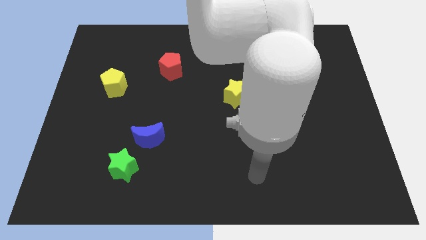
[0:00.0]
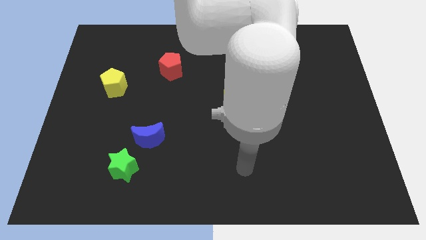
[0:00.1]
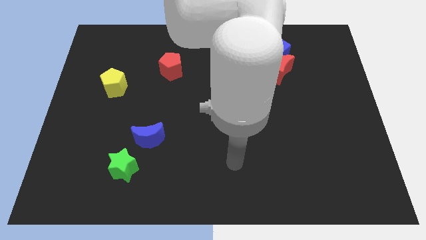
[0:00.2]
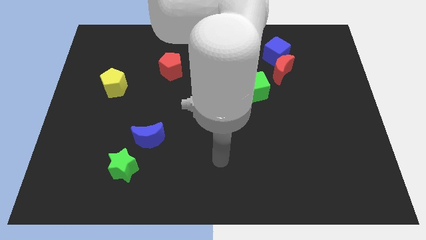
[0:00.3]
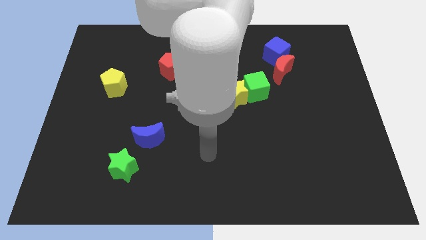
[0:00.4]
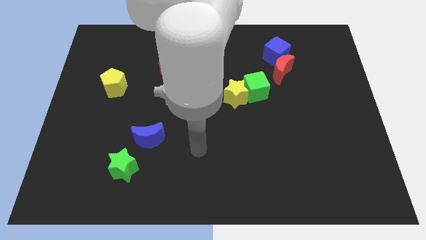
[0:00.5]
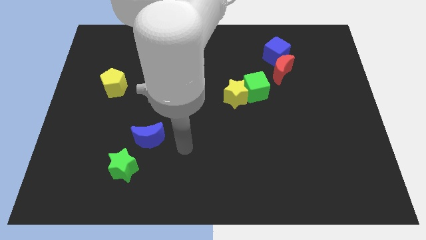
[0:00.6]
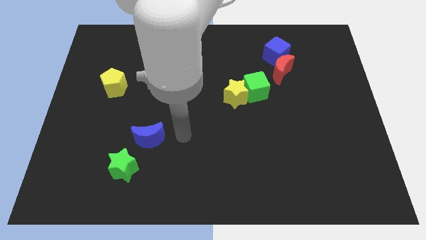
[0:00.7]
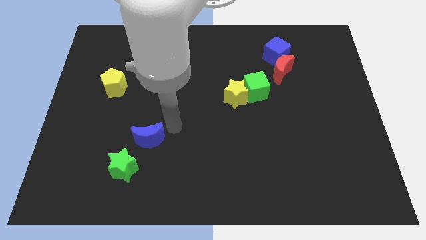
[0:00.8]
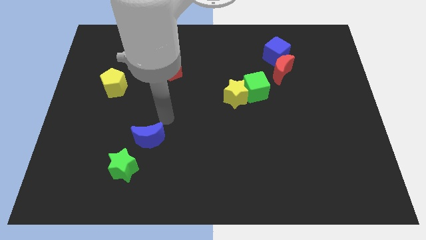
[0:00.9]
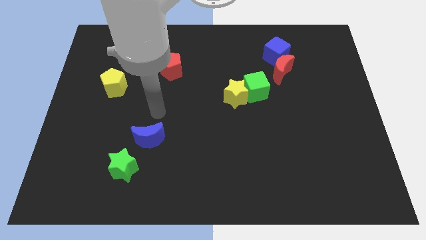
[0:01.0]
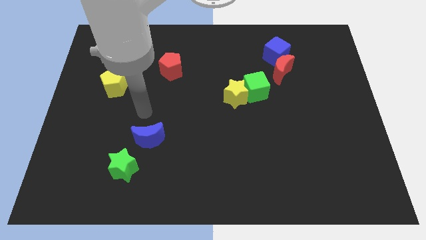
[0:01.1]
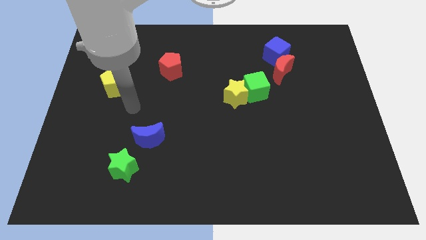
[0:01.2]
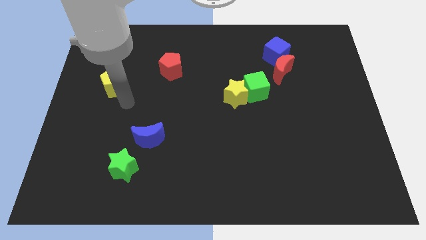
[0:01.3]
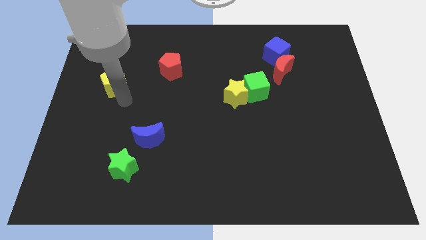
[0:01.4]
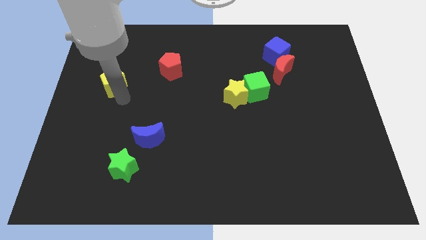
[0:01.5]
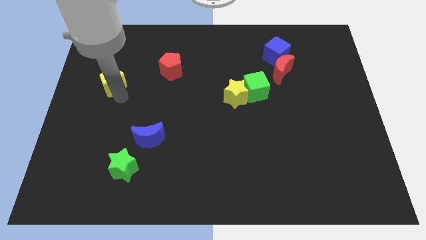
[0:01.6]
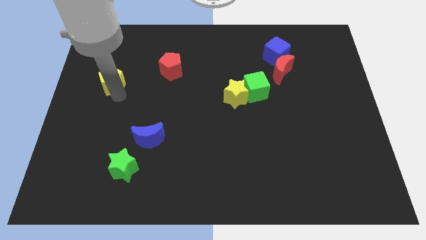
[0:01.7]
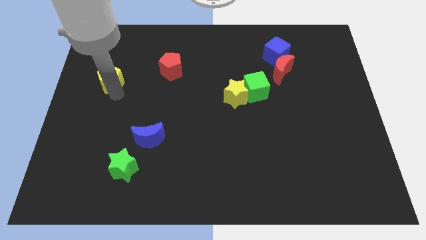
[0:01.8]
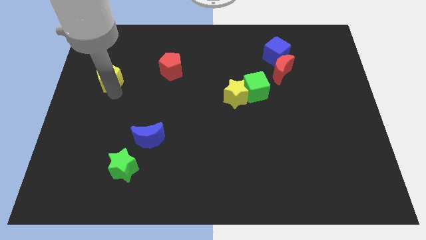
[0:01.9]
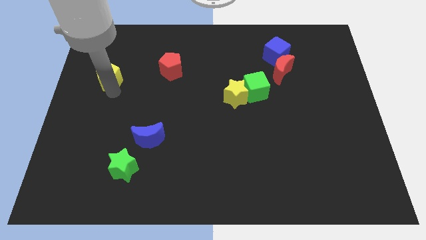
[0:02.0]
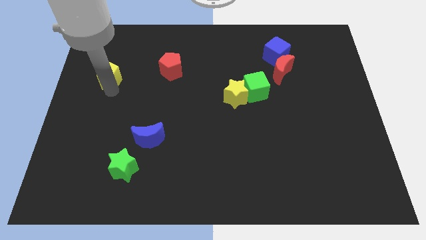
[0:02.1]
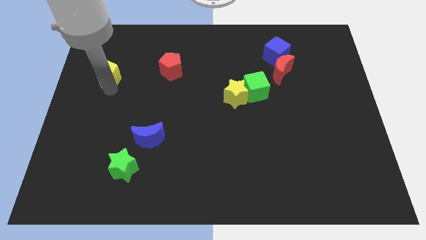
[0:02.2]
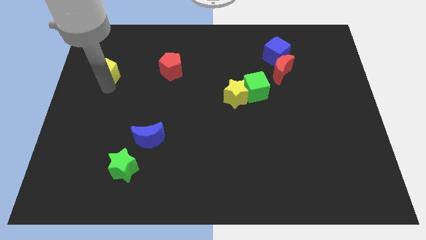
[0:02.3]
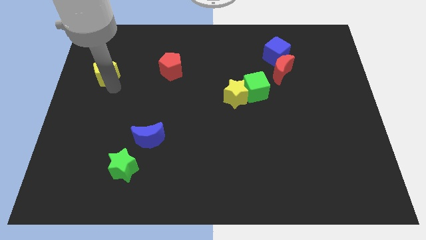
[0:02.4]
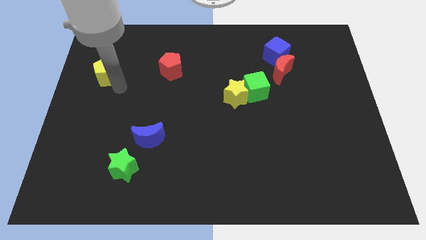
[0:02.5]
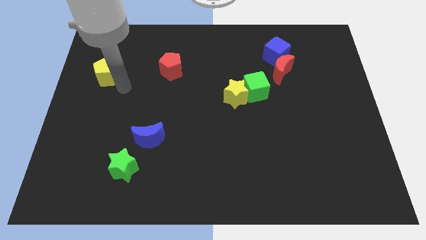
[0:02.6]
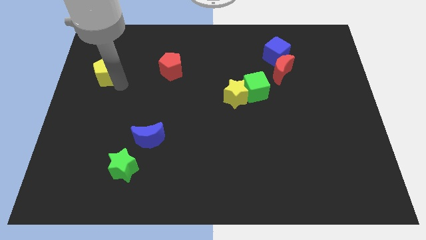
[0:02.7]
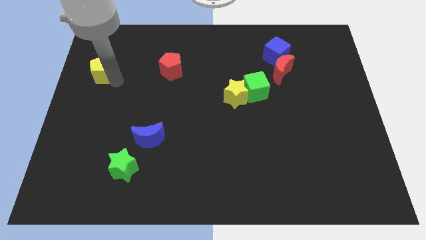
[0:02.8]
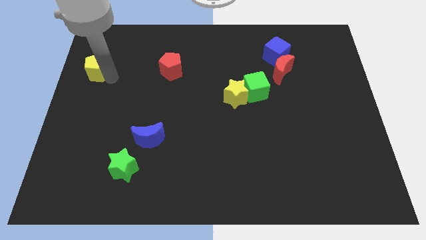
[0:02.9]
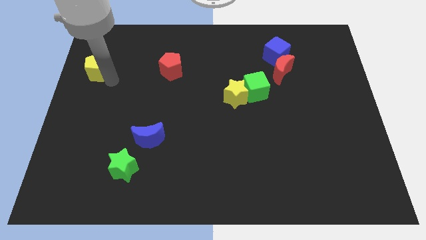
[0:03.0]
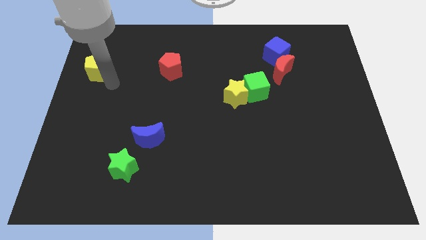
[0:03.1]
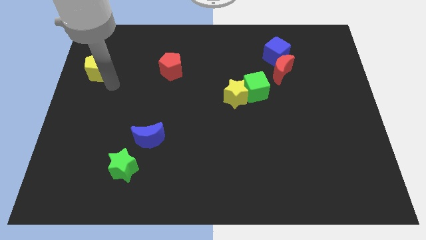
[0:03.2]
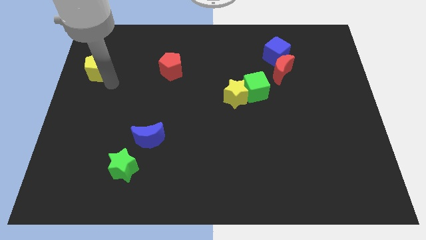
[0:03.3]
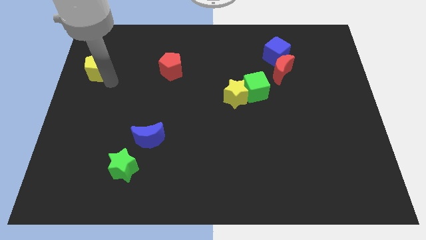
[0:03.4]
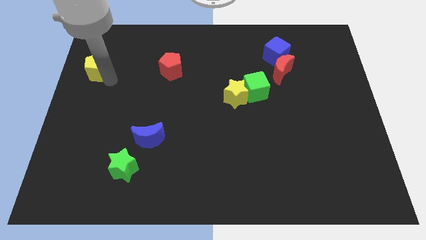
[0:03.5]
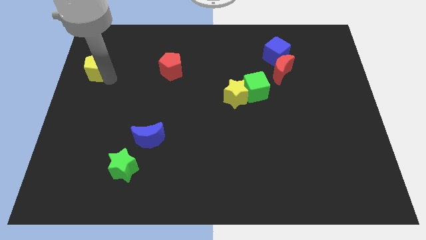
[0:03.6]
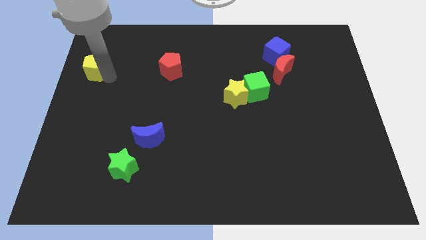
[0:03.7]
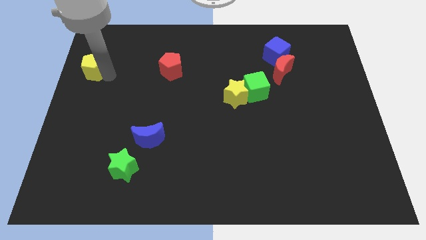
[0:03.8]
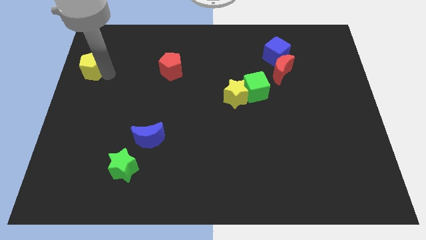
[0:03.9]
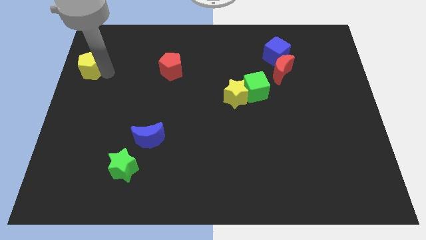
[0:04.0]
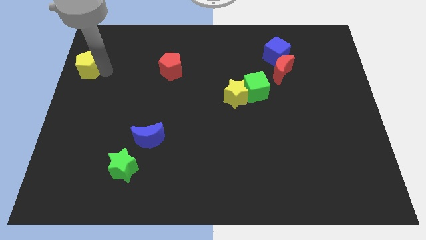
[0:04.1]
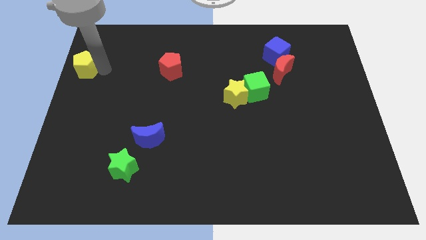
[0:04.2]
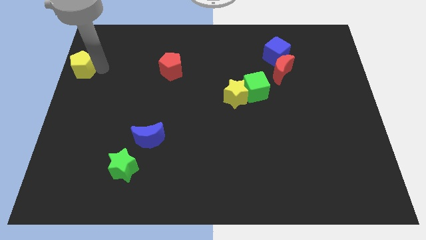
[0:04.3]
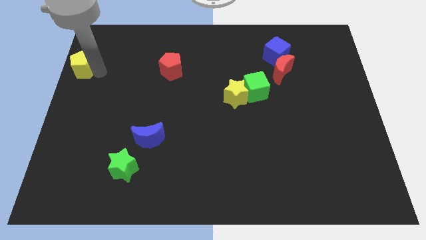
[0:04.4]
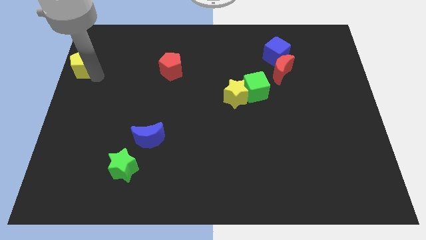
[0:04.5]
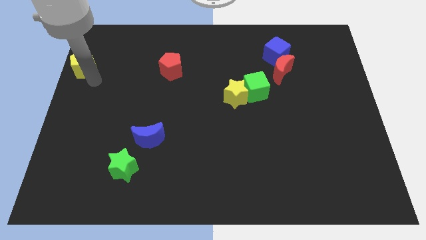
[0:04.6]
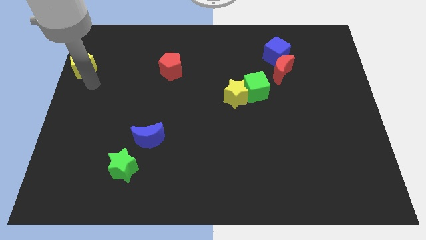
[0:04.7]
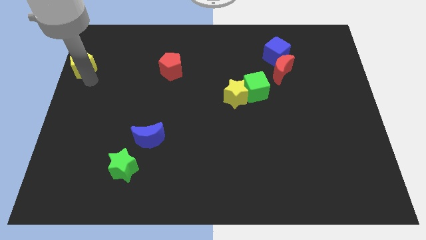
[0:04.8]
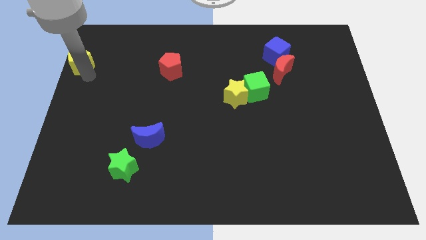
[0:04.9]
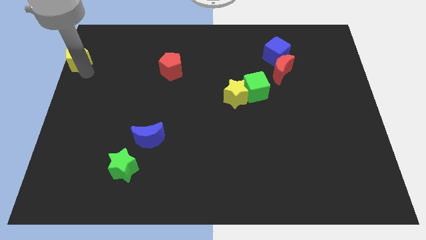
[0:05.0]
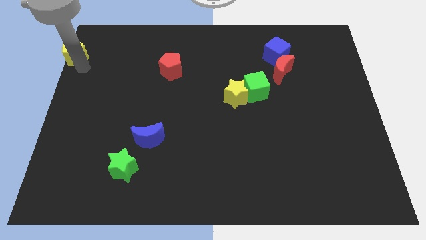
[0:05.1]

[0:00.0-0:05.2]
slide the yellow pentagon to the top left corner

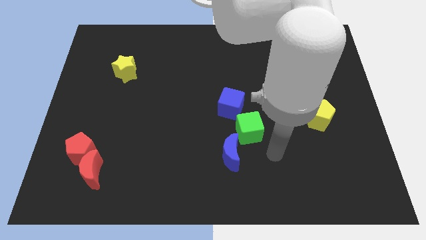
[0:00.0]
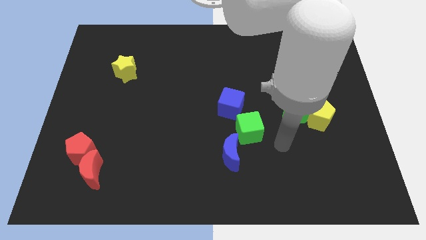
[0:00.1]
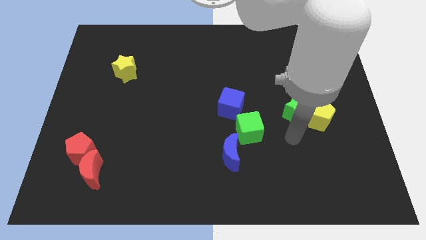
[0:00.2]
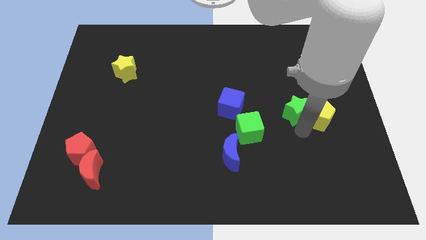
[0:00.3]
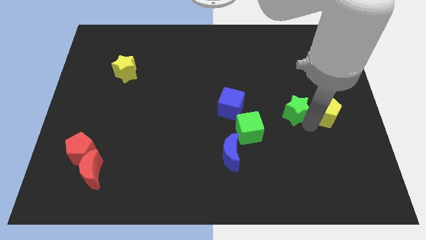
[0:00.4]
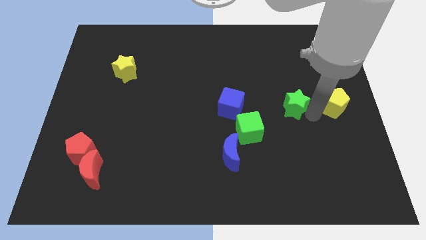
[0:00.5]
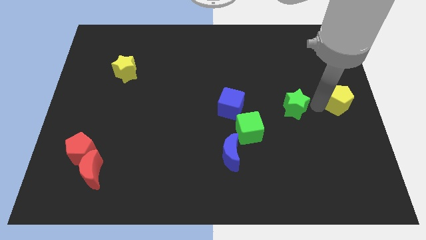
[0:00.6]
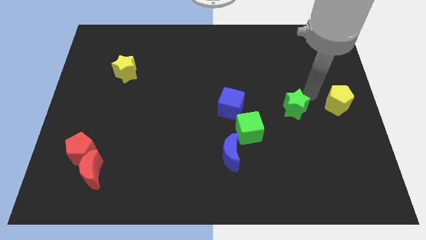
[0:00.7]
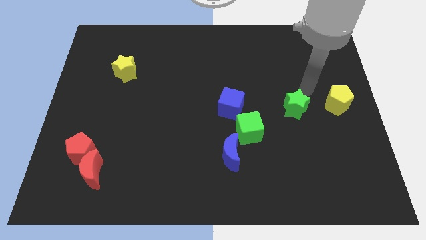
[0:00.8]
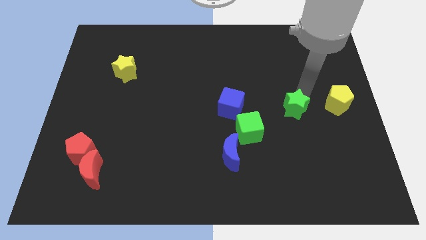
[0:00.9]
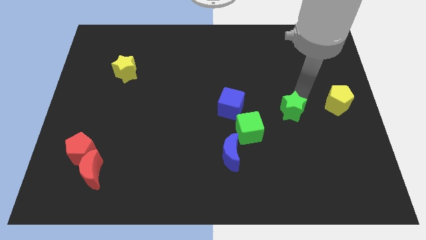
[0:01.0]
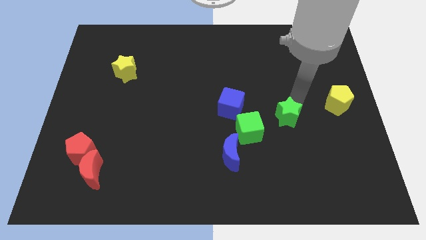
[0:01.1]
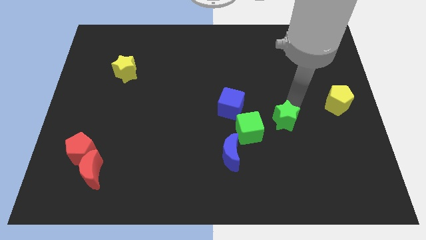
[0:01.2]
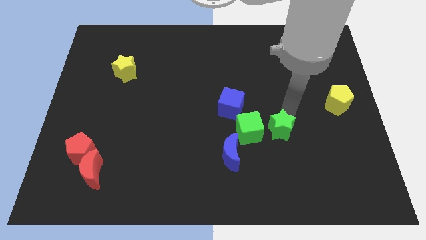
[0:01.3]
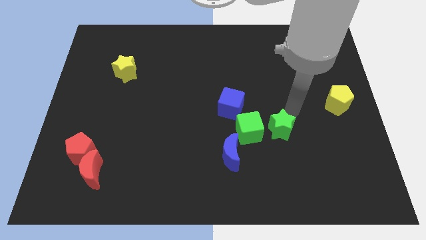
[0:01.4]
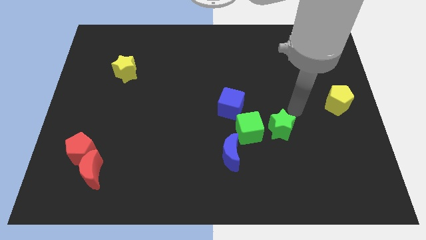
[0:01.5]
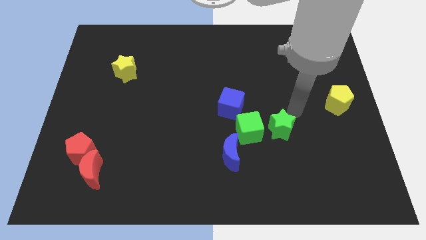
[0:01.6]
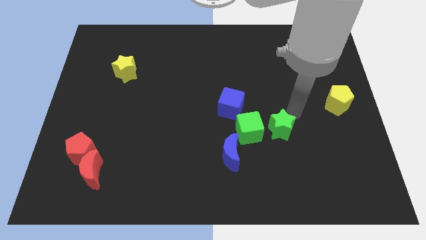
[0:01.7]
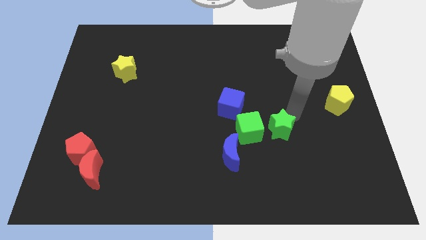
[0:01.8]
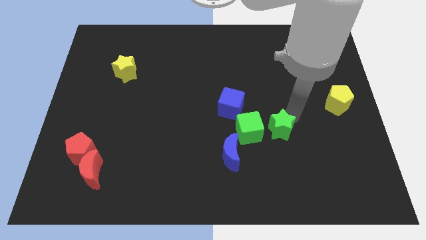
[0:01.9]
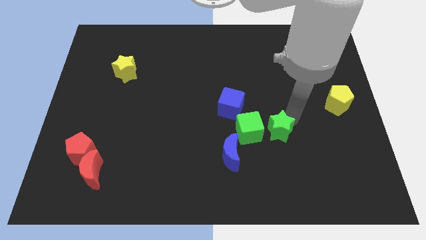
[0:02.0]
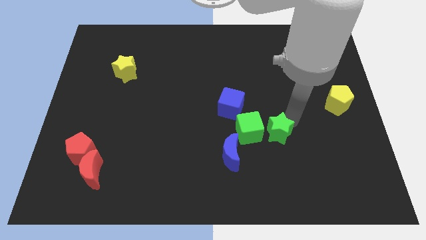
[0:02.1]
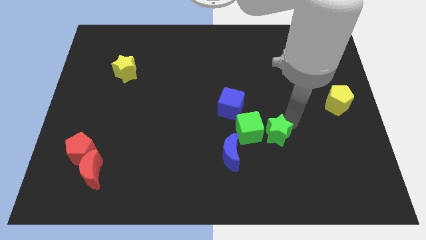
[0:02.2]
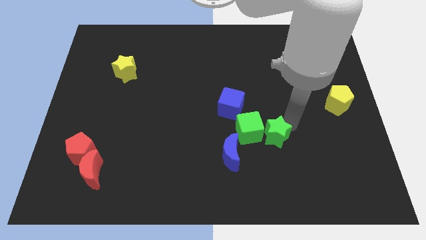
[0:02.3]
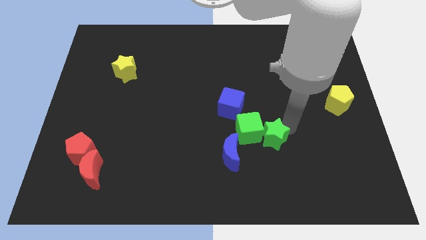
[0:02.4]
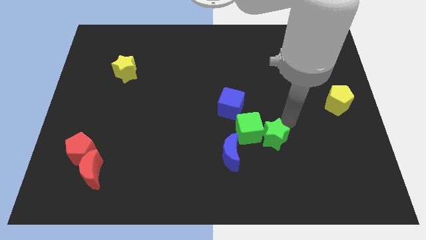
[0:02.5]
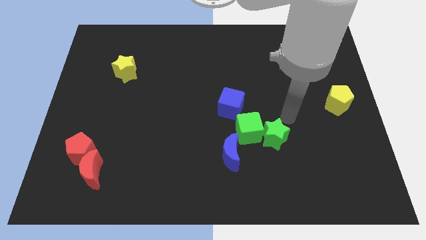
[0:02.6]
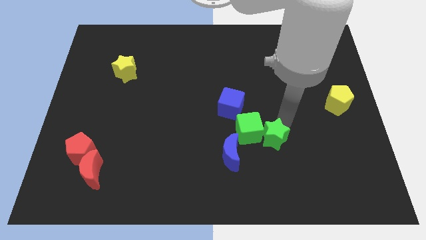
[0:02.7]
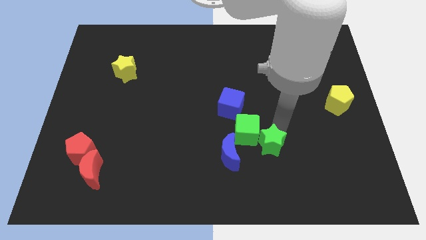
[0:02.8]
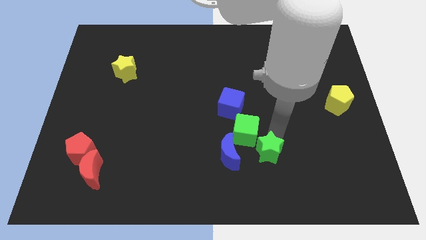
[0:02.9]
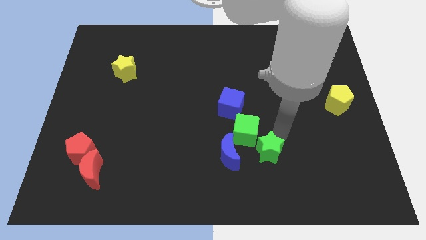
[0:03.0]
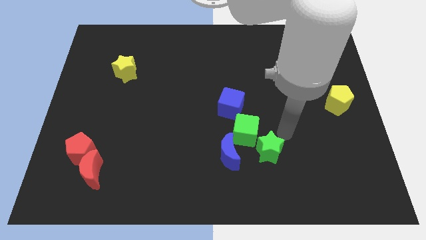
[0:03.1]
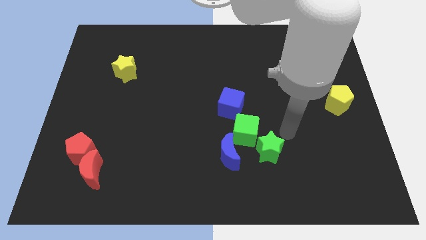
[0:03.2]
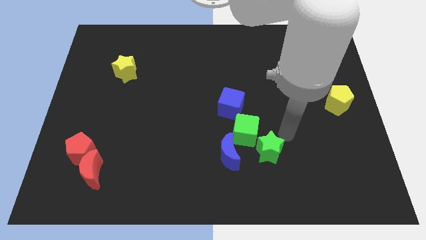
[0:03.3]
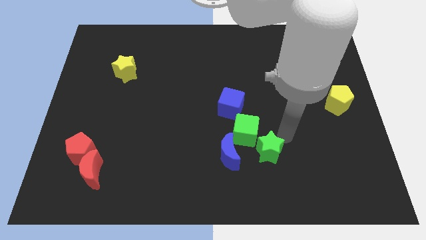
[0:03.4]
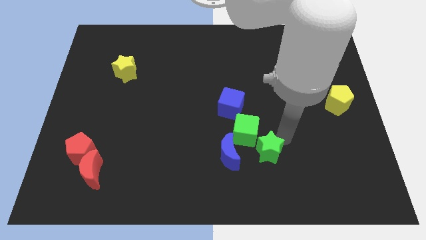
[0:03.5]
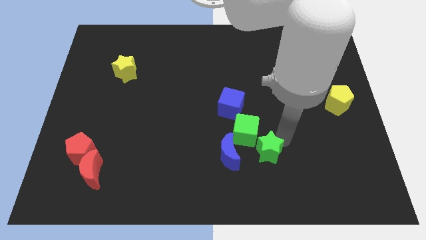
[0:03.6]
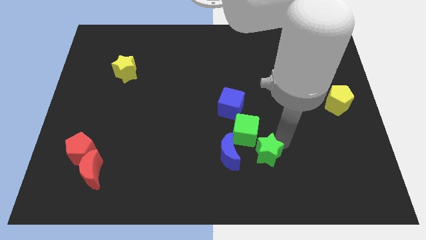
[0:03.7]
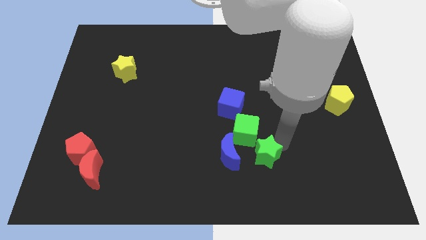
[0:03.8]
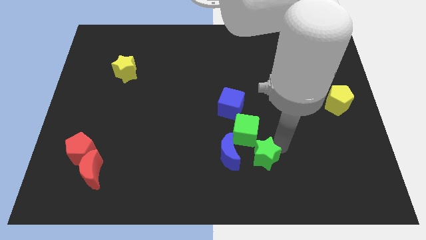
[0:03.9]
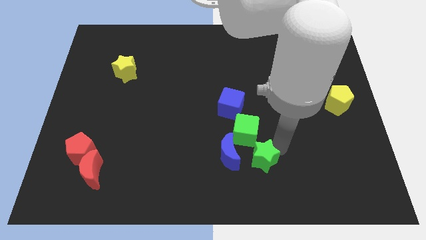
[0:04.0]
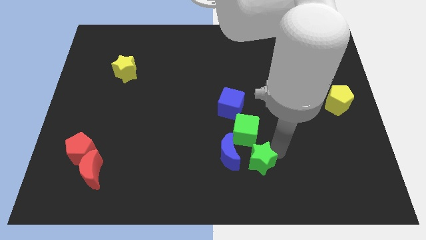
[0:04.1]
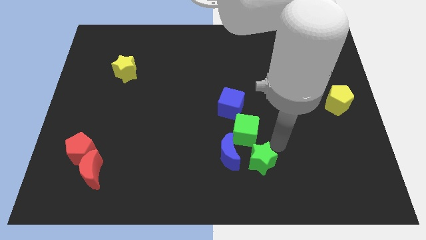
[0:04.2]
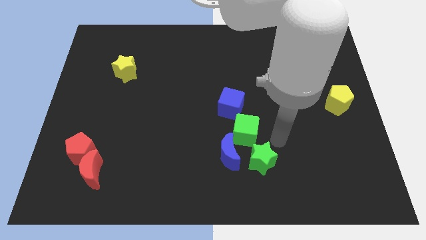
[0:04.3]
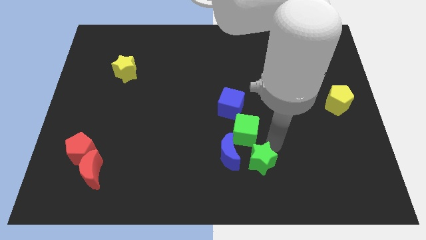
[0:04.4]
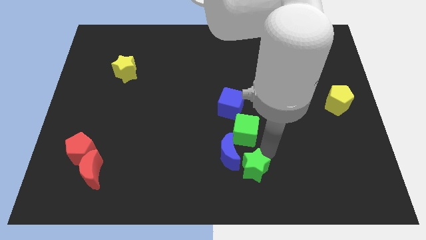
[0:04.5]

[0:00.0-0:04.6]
push the green star to the bottom
